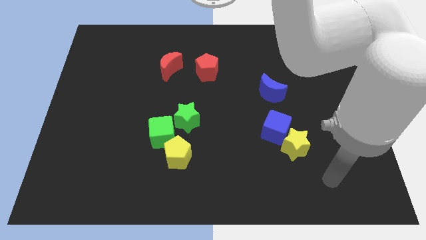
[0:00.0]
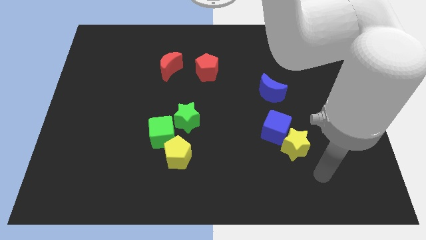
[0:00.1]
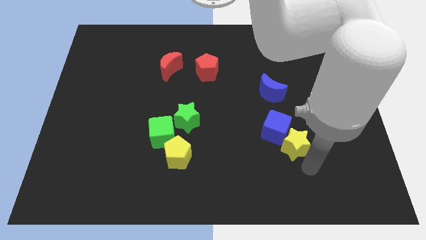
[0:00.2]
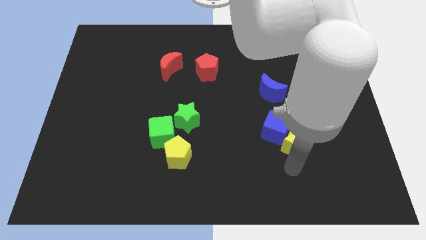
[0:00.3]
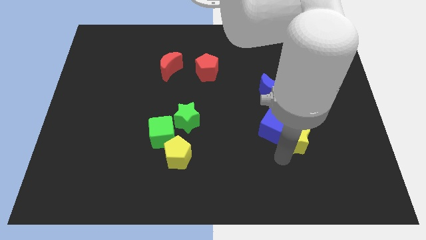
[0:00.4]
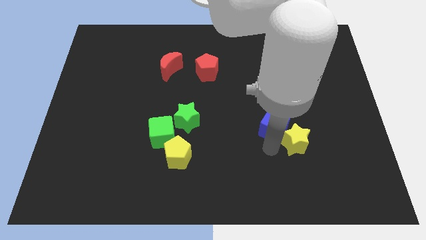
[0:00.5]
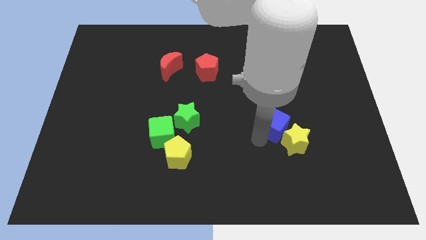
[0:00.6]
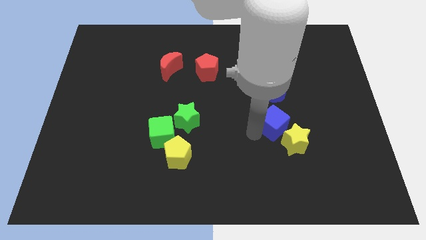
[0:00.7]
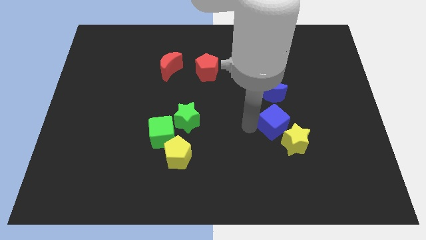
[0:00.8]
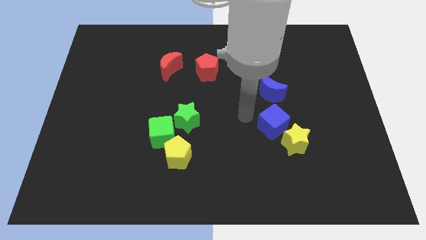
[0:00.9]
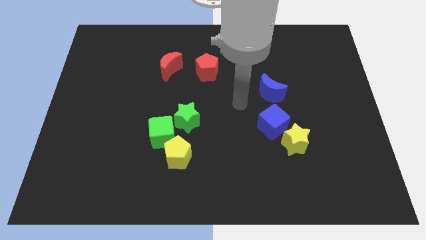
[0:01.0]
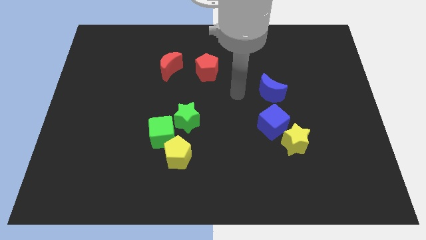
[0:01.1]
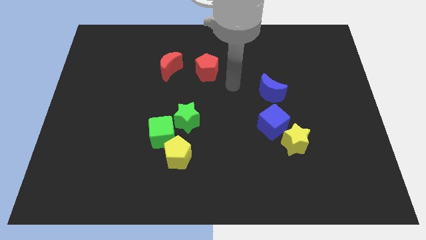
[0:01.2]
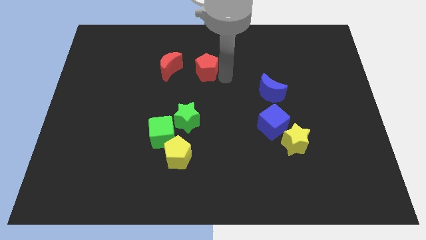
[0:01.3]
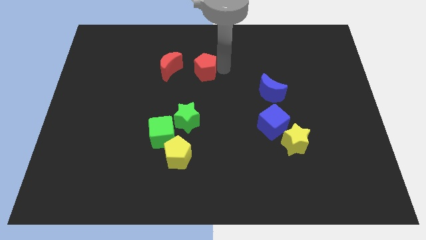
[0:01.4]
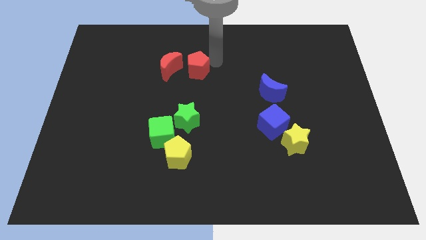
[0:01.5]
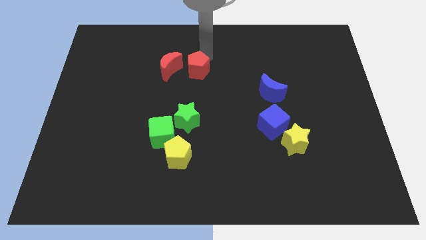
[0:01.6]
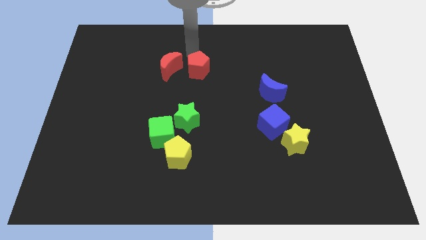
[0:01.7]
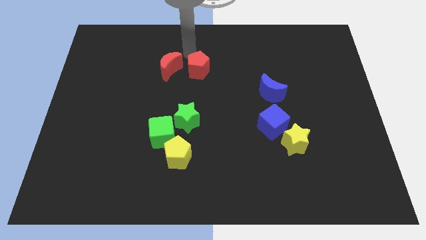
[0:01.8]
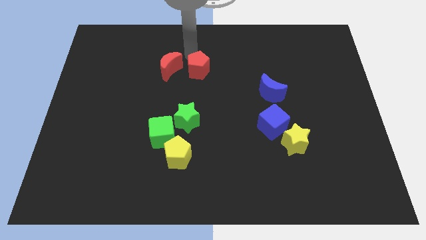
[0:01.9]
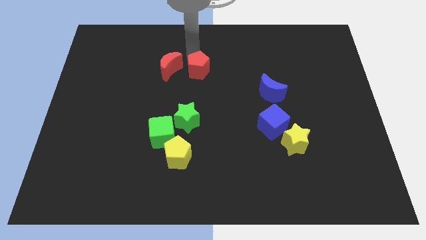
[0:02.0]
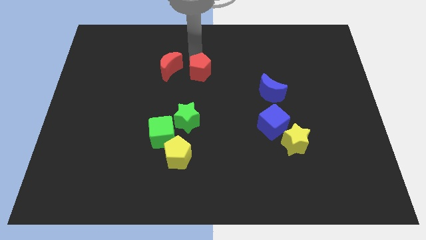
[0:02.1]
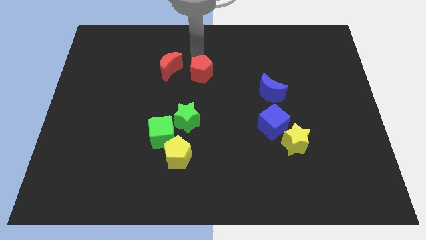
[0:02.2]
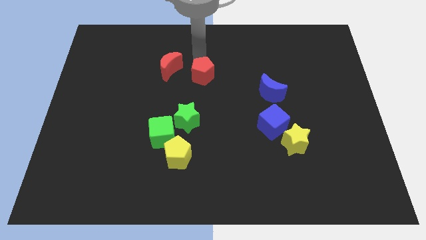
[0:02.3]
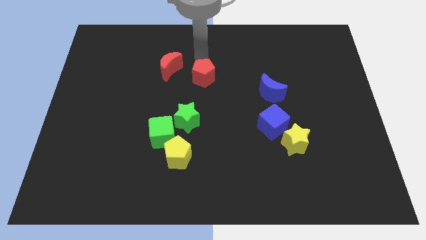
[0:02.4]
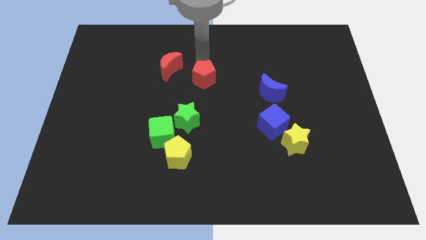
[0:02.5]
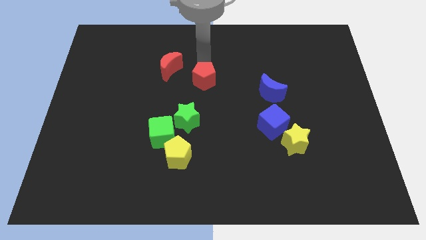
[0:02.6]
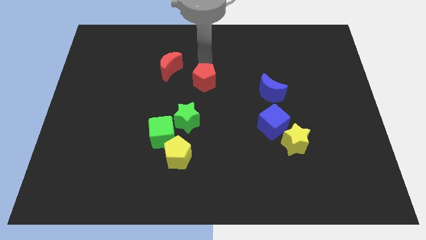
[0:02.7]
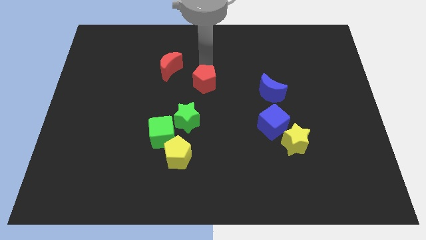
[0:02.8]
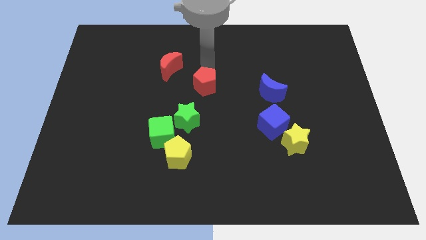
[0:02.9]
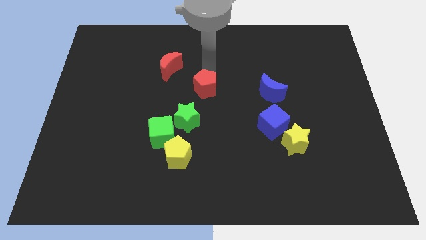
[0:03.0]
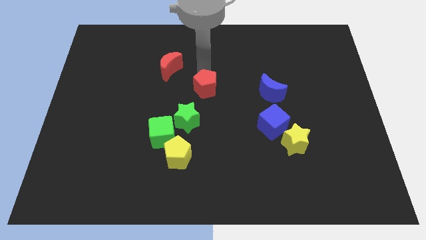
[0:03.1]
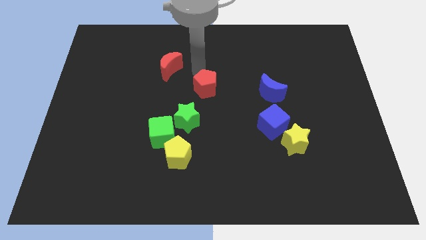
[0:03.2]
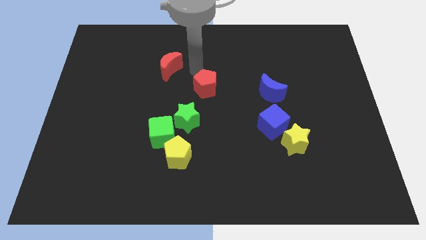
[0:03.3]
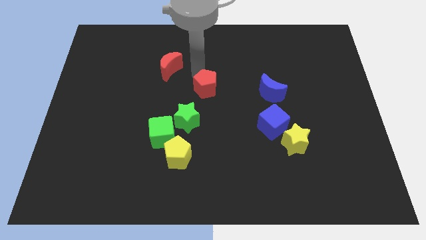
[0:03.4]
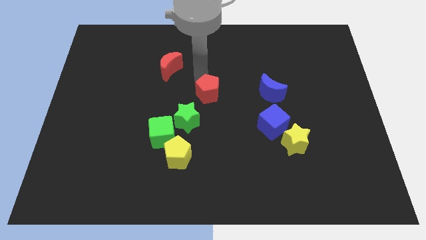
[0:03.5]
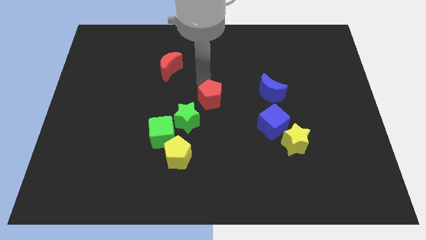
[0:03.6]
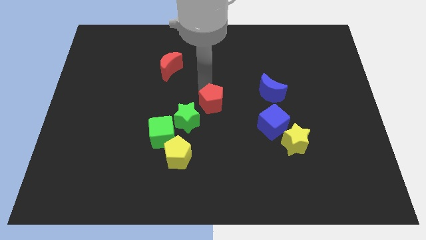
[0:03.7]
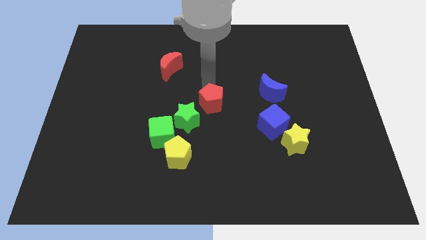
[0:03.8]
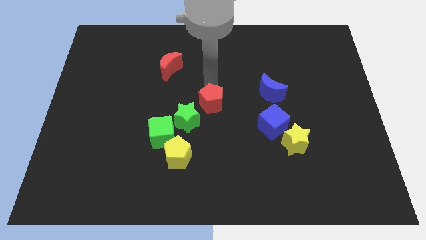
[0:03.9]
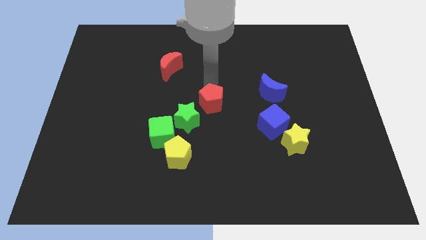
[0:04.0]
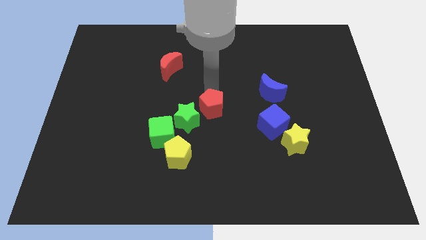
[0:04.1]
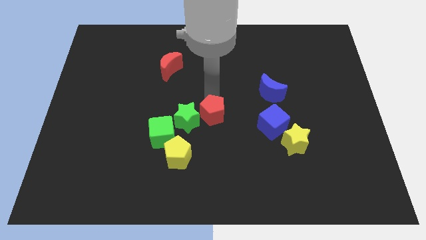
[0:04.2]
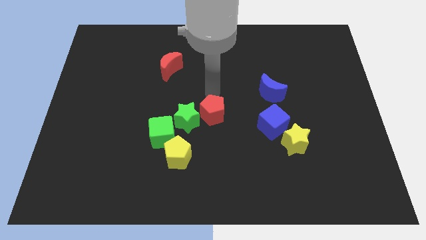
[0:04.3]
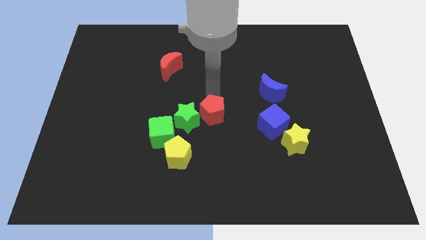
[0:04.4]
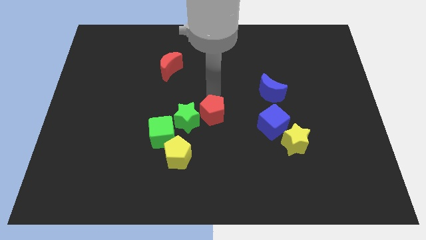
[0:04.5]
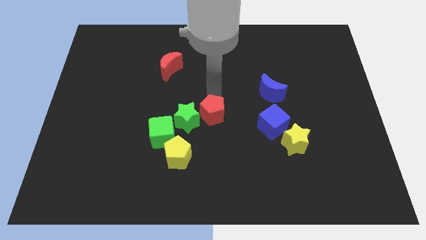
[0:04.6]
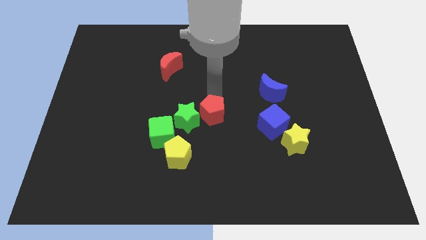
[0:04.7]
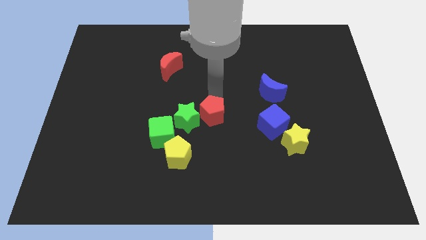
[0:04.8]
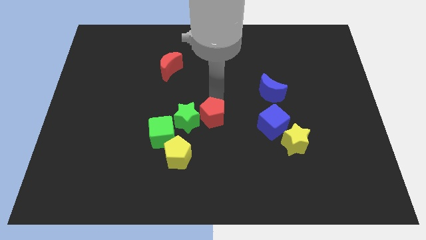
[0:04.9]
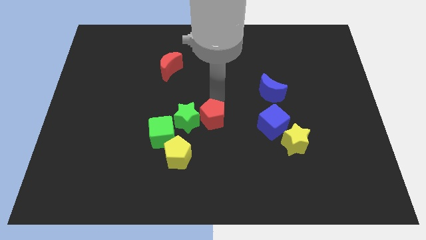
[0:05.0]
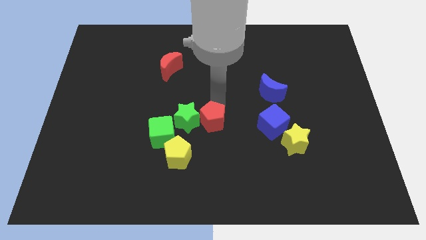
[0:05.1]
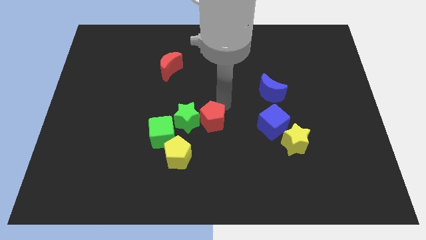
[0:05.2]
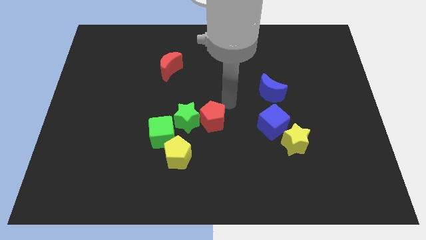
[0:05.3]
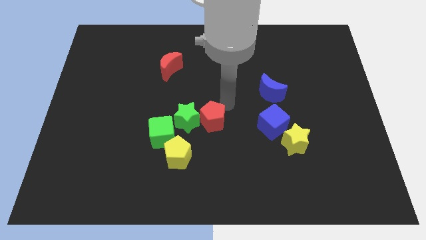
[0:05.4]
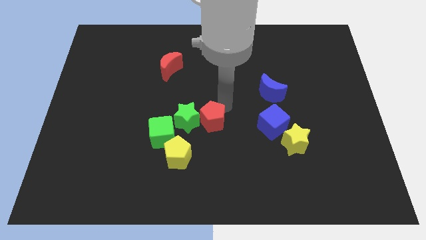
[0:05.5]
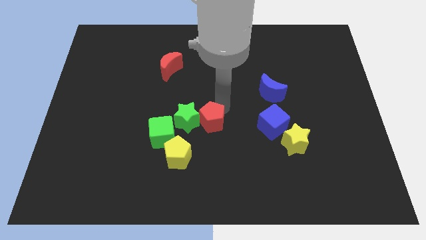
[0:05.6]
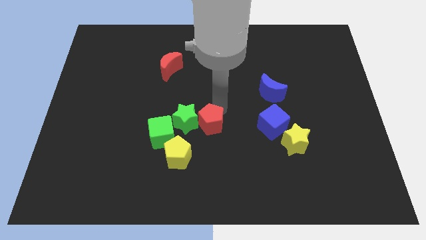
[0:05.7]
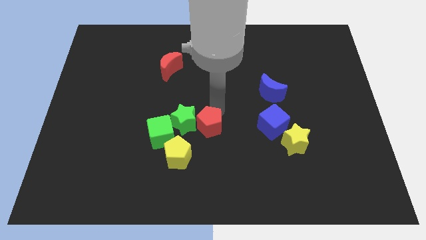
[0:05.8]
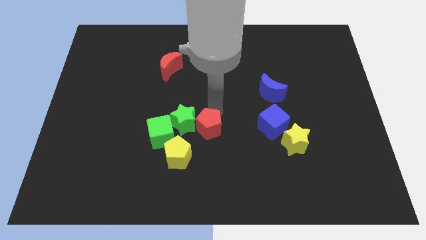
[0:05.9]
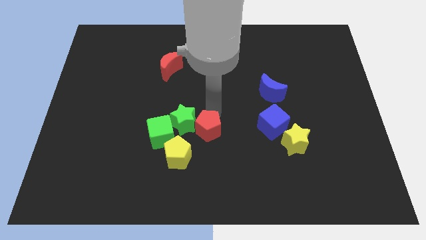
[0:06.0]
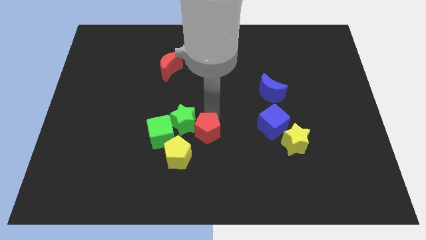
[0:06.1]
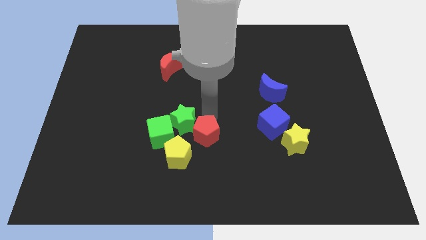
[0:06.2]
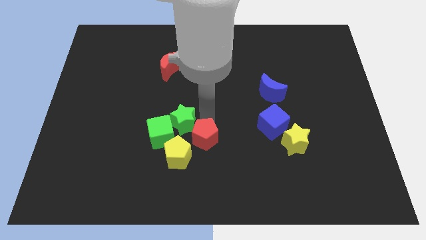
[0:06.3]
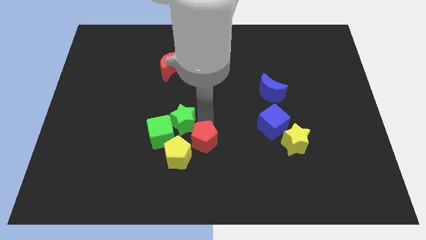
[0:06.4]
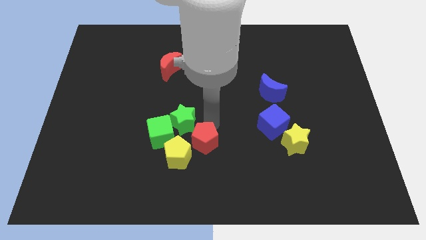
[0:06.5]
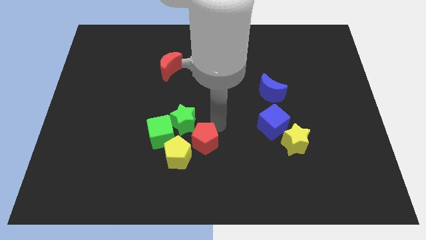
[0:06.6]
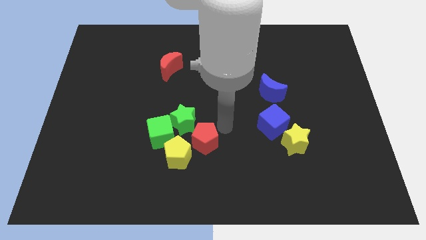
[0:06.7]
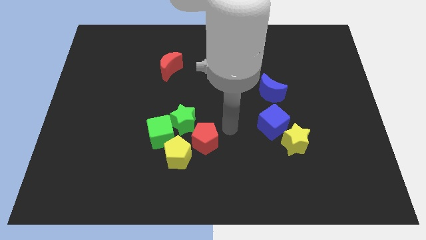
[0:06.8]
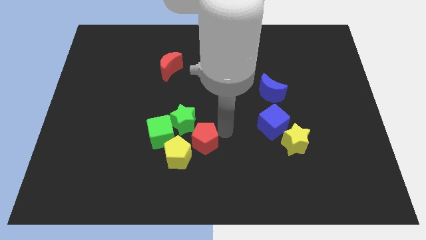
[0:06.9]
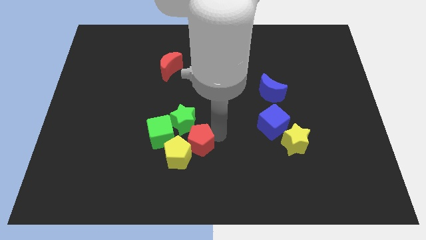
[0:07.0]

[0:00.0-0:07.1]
slide the red pentagon to the yellow pentagon
